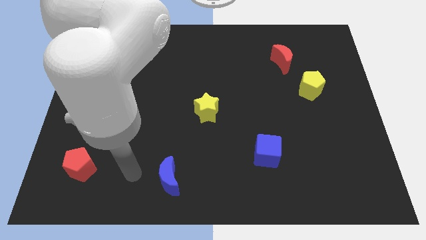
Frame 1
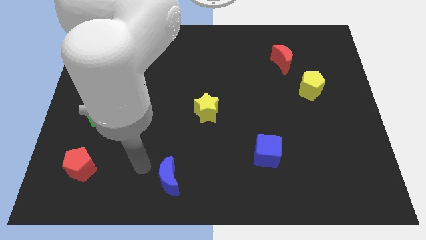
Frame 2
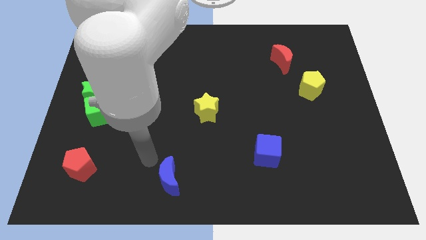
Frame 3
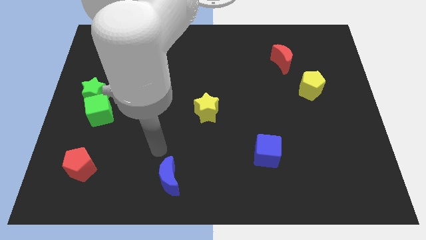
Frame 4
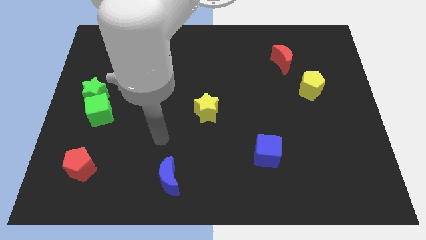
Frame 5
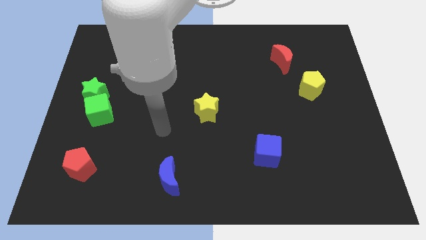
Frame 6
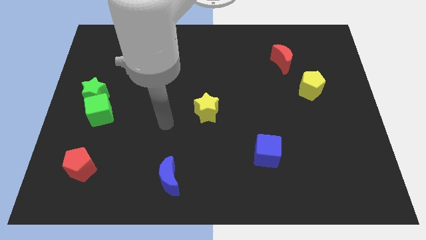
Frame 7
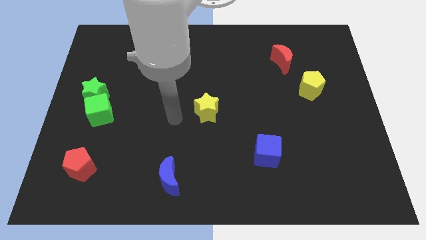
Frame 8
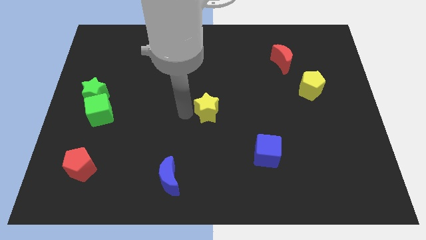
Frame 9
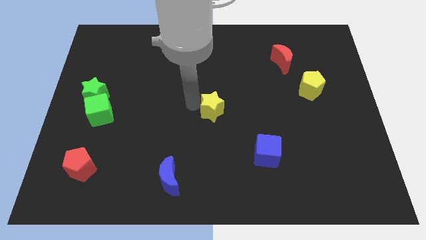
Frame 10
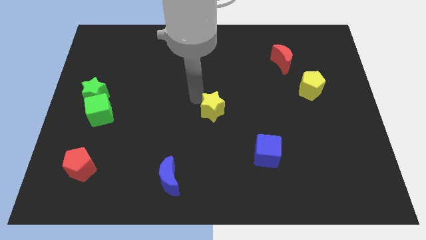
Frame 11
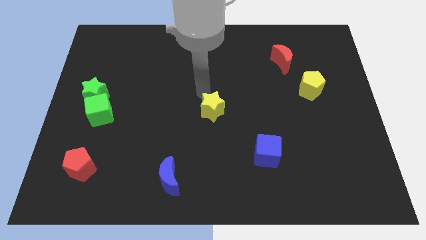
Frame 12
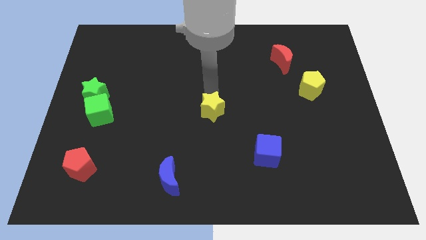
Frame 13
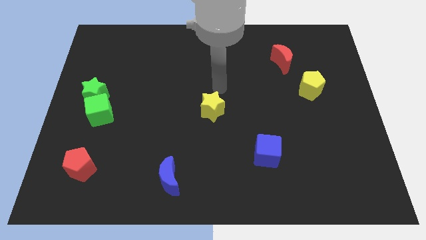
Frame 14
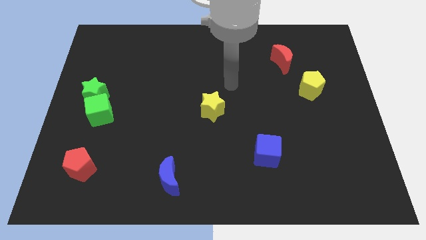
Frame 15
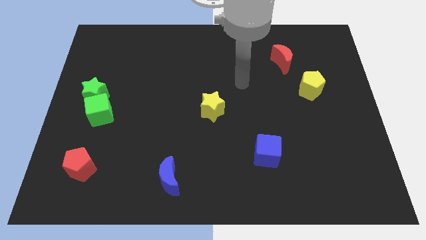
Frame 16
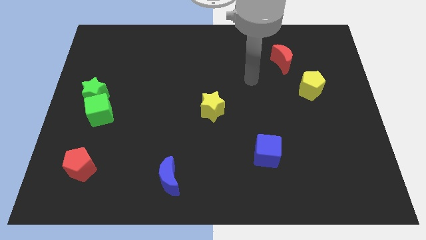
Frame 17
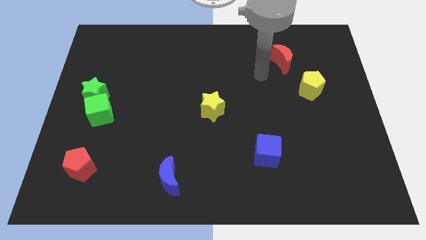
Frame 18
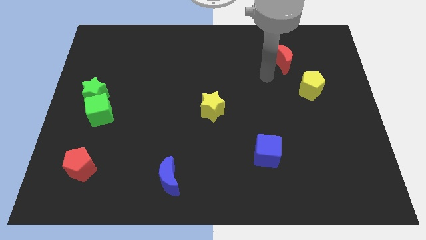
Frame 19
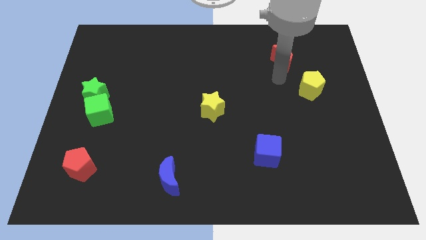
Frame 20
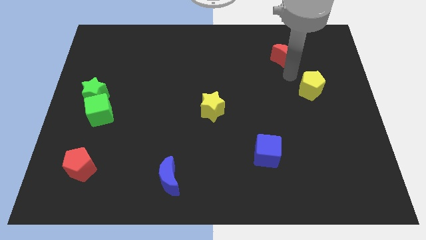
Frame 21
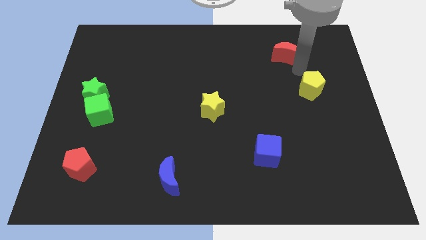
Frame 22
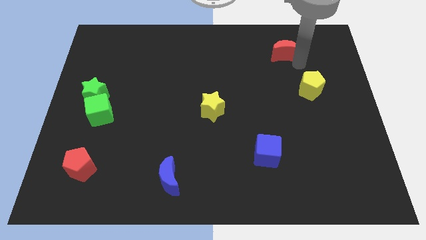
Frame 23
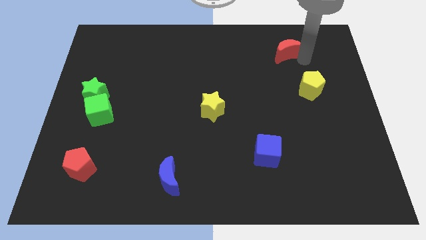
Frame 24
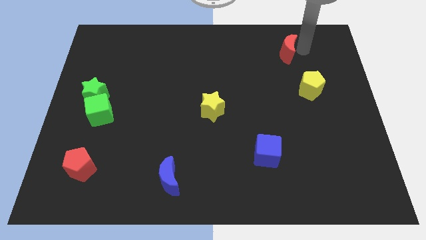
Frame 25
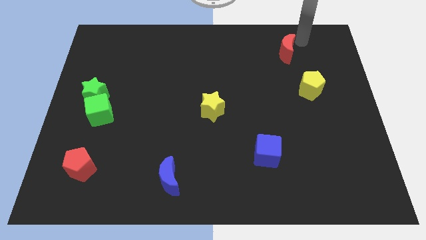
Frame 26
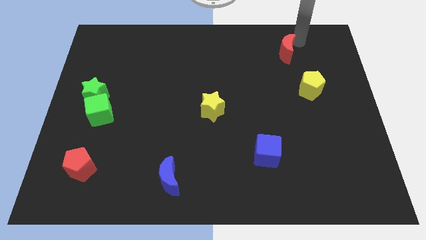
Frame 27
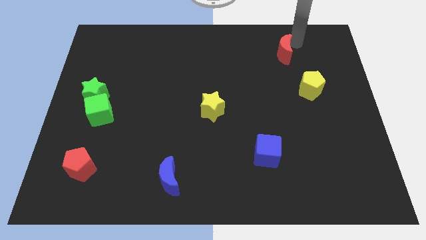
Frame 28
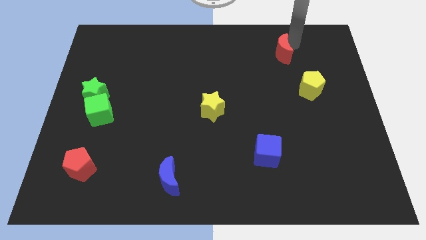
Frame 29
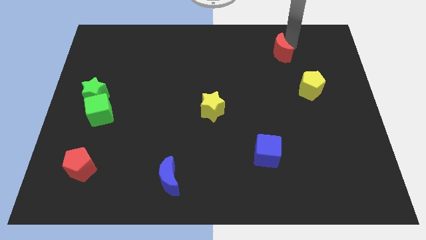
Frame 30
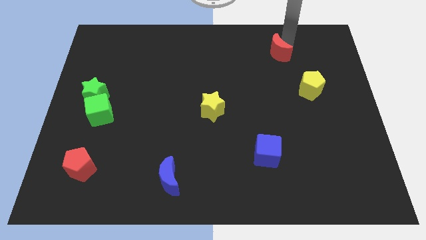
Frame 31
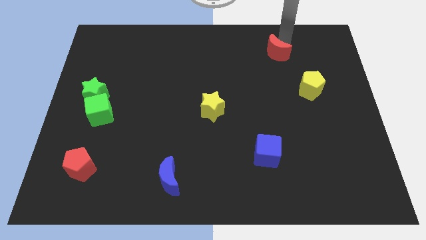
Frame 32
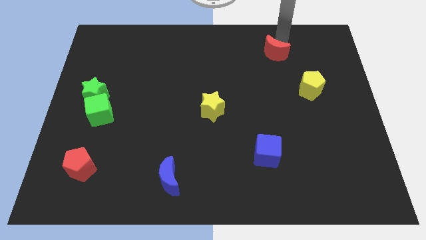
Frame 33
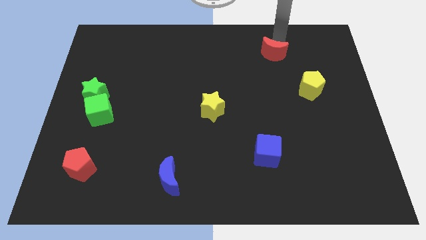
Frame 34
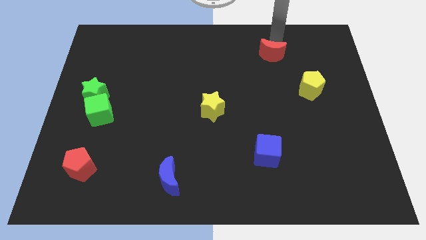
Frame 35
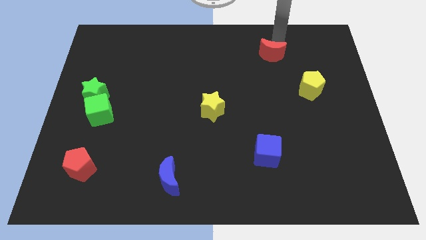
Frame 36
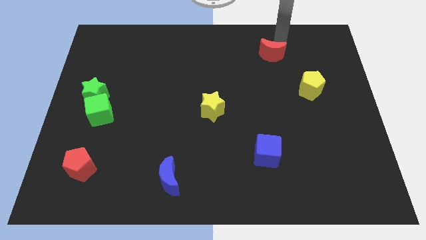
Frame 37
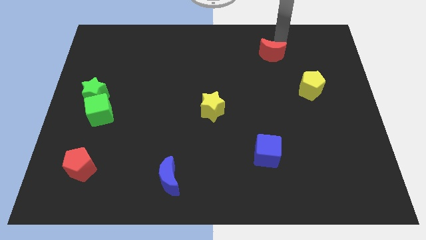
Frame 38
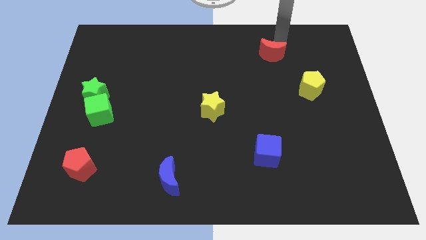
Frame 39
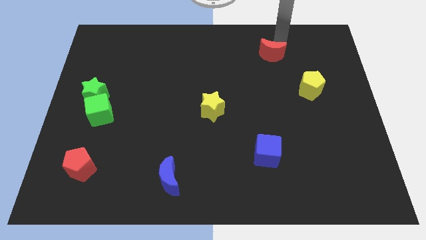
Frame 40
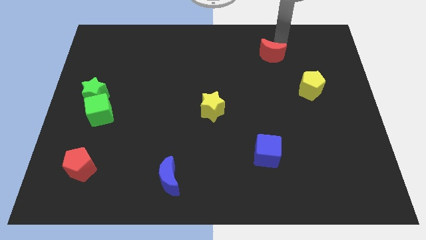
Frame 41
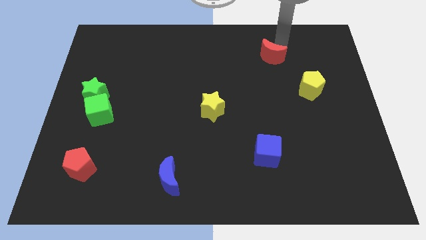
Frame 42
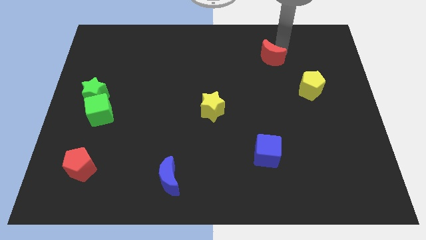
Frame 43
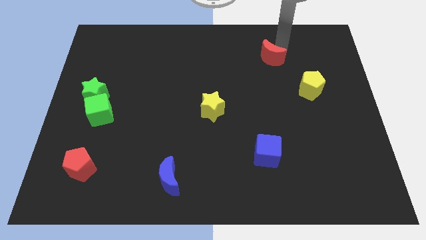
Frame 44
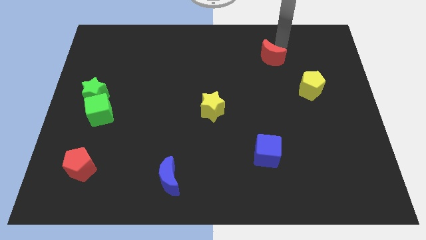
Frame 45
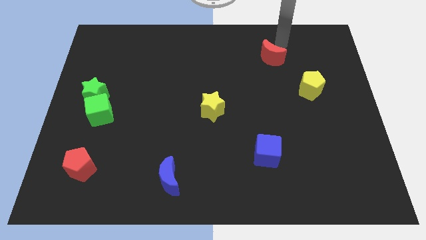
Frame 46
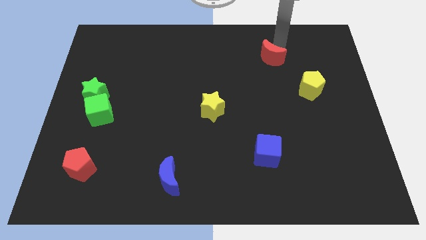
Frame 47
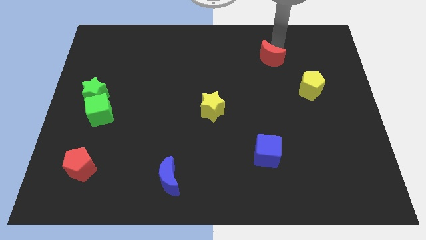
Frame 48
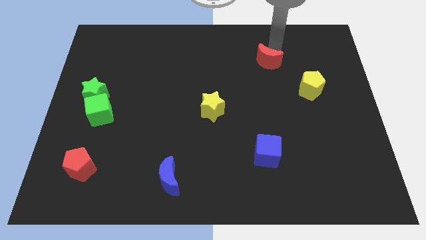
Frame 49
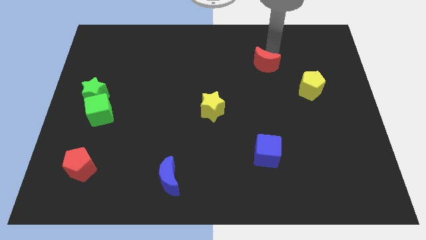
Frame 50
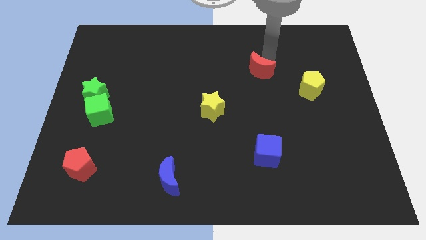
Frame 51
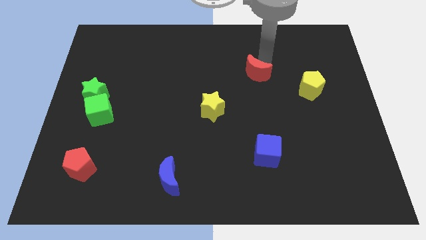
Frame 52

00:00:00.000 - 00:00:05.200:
slightly move the red moon downwards and to the left diagonally

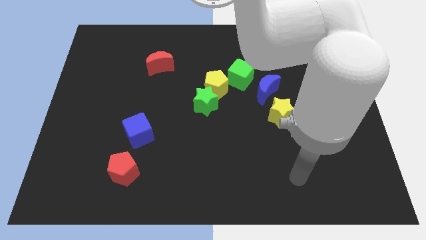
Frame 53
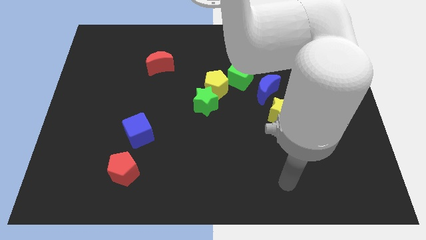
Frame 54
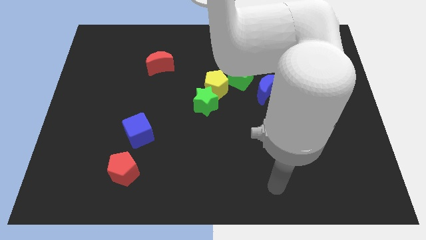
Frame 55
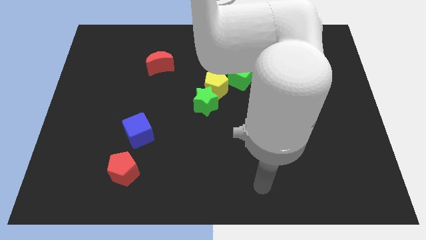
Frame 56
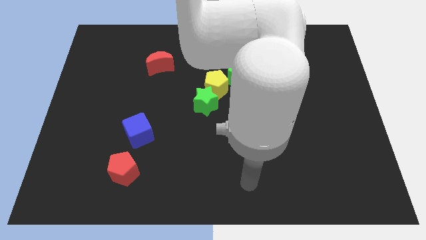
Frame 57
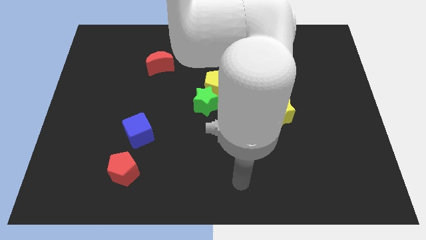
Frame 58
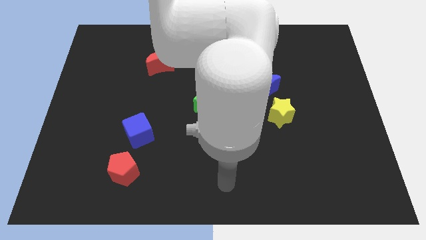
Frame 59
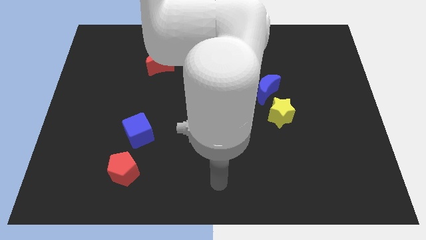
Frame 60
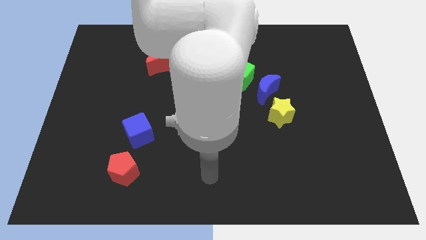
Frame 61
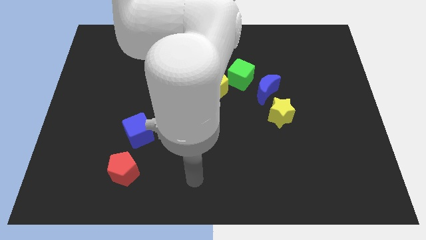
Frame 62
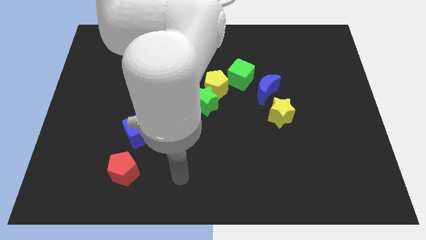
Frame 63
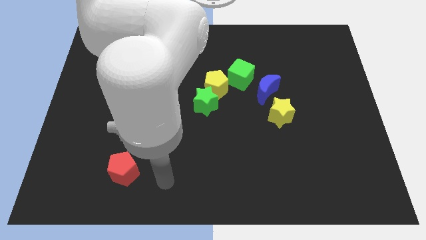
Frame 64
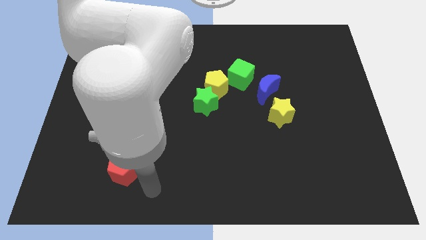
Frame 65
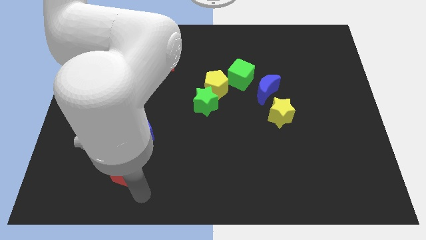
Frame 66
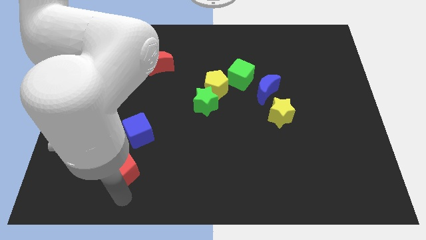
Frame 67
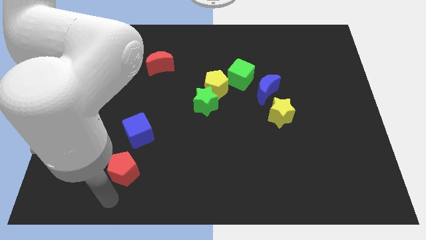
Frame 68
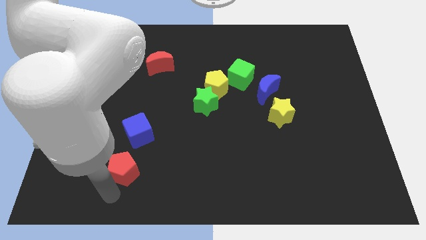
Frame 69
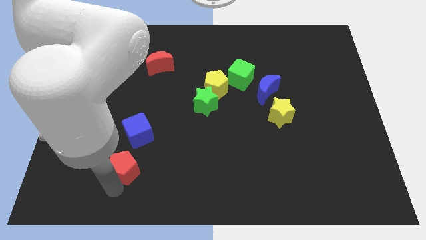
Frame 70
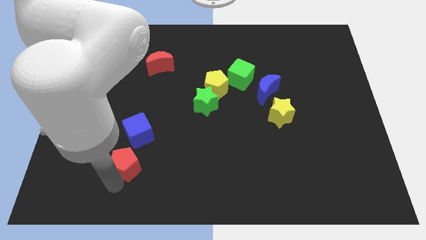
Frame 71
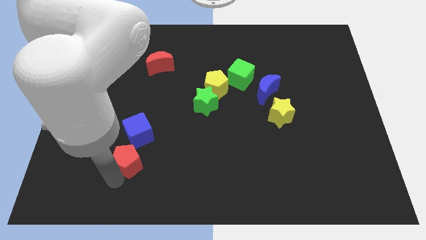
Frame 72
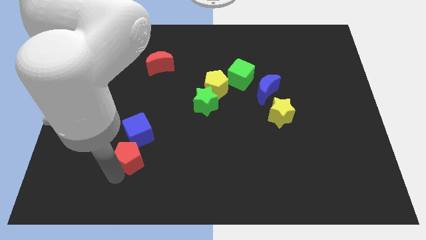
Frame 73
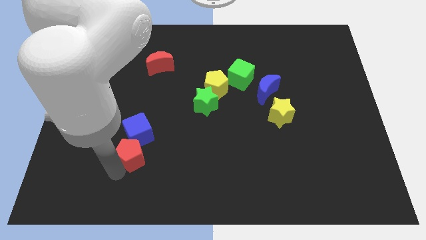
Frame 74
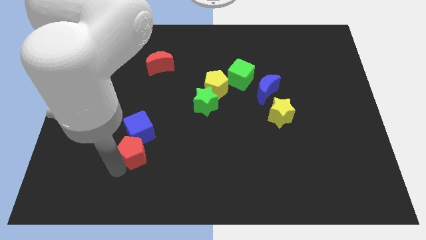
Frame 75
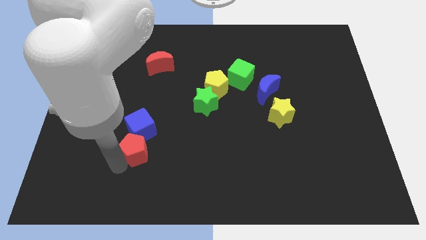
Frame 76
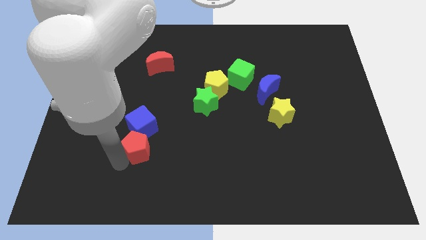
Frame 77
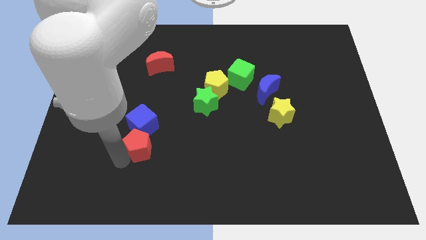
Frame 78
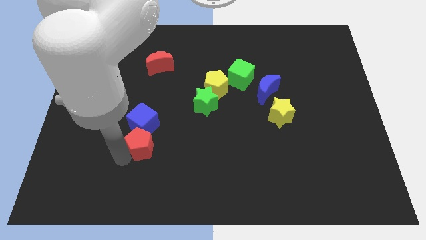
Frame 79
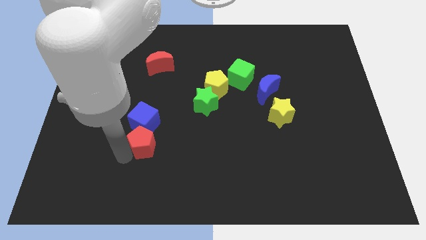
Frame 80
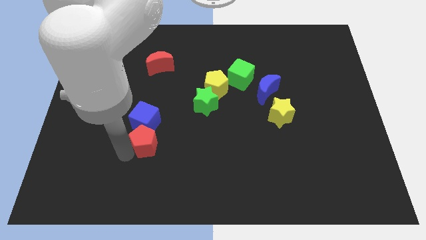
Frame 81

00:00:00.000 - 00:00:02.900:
slide the red pentagon diagonally up and to the right somewhat

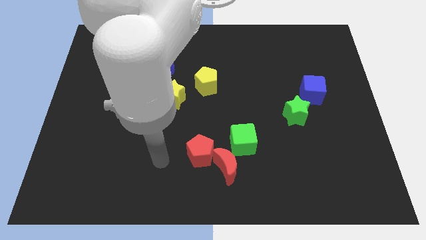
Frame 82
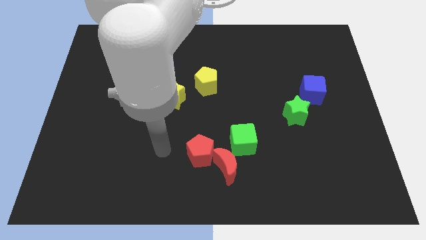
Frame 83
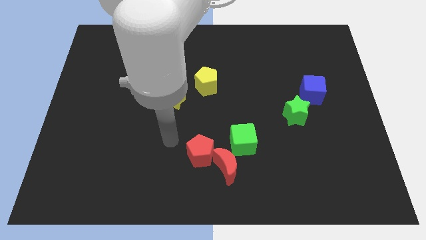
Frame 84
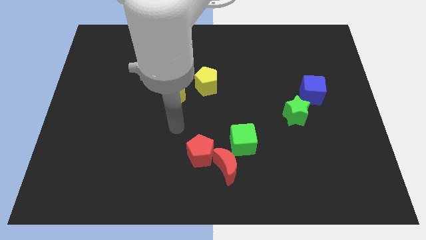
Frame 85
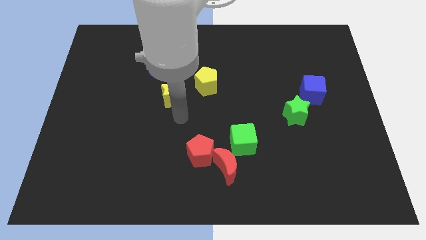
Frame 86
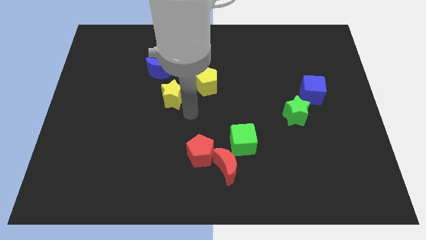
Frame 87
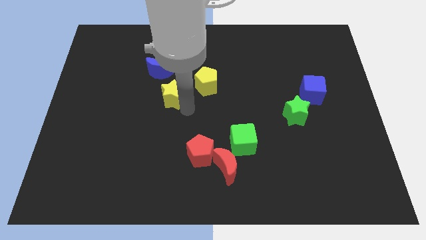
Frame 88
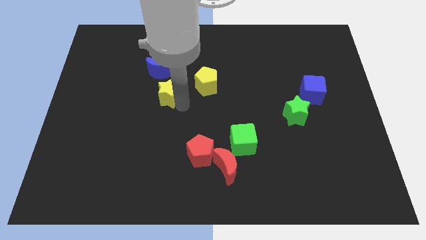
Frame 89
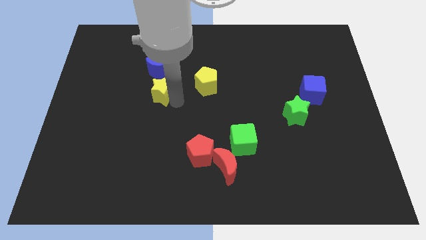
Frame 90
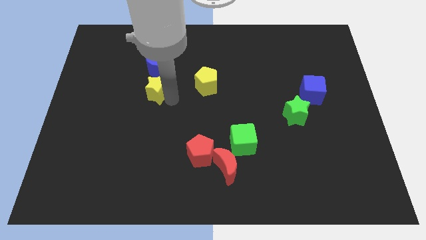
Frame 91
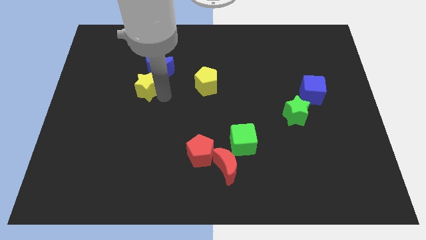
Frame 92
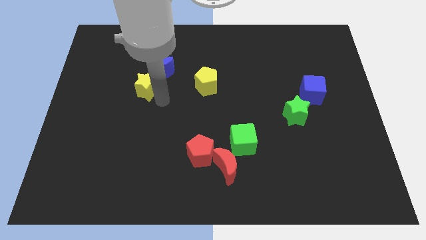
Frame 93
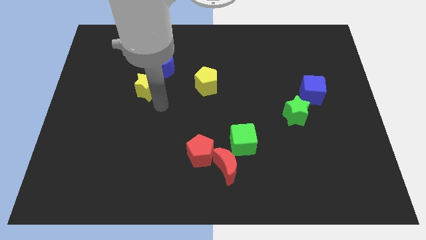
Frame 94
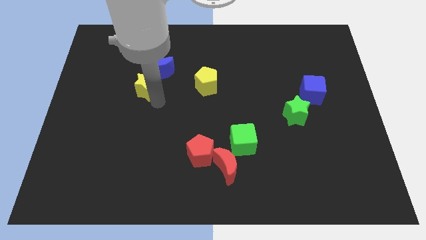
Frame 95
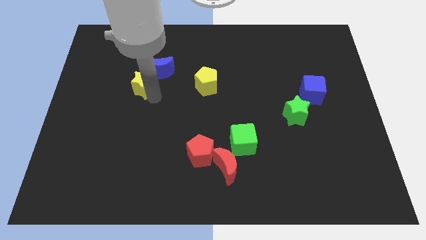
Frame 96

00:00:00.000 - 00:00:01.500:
move the yellow star up and left slightly
